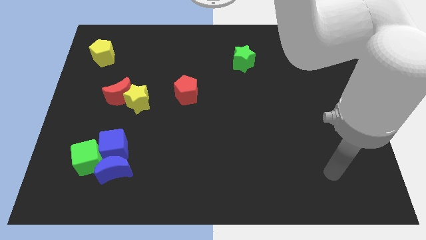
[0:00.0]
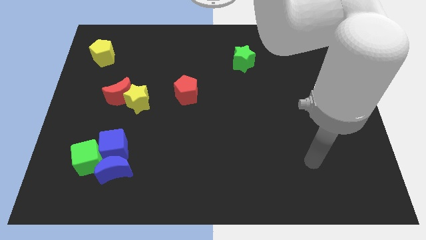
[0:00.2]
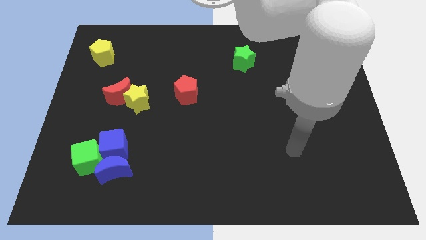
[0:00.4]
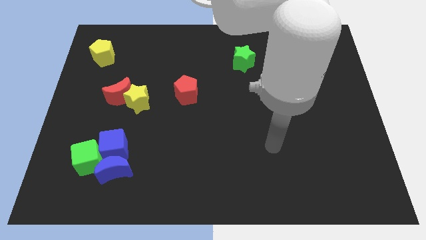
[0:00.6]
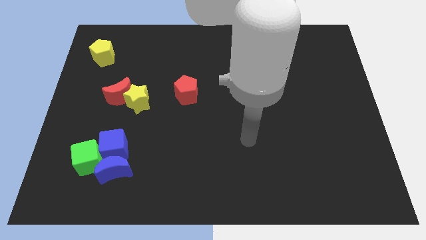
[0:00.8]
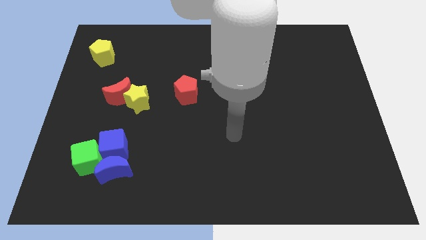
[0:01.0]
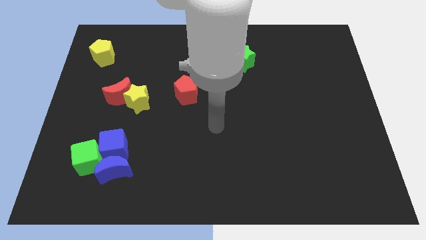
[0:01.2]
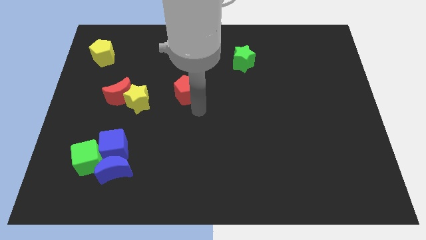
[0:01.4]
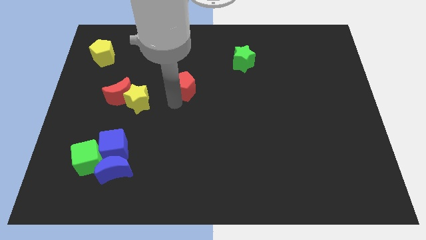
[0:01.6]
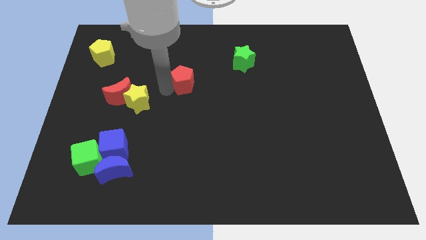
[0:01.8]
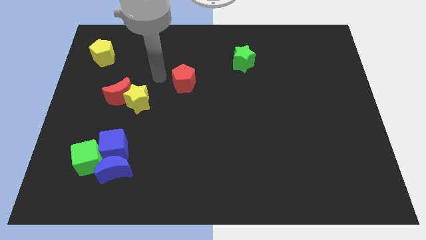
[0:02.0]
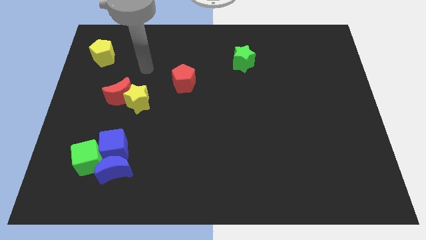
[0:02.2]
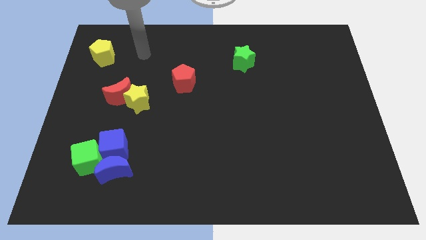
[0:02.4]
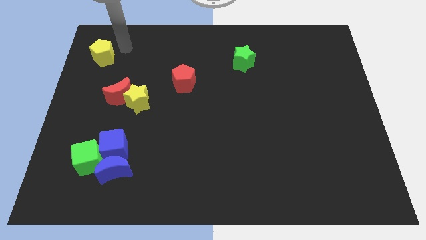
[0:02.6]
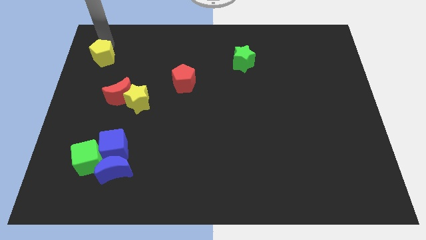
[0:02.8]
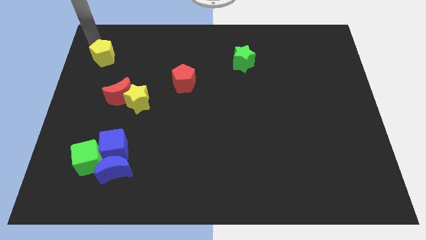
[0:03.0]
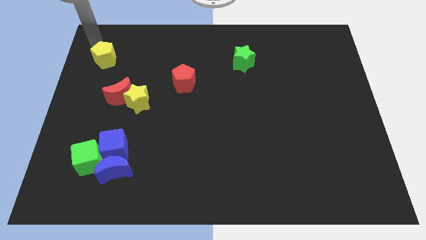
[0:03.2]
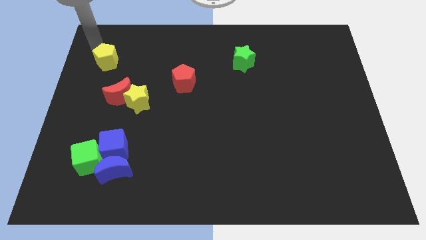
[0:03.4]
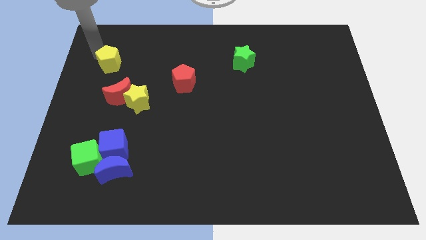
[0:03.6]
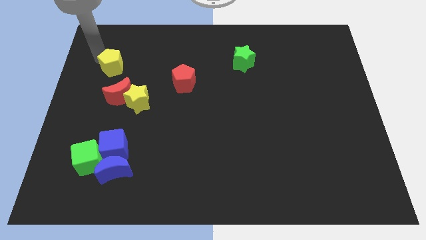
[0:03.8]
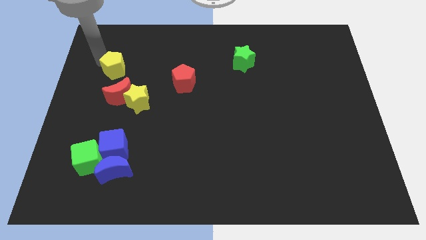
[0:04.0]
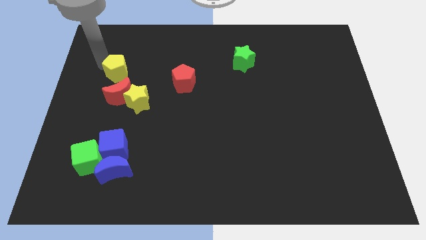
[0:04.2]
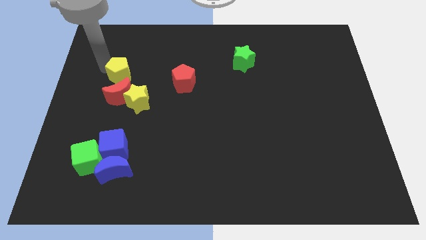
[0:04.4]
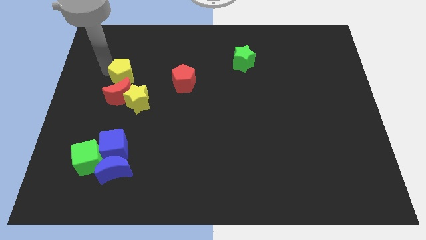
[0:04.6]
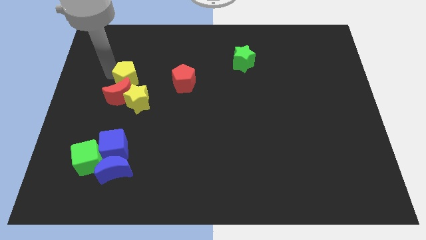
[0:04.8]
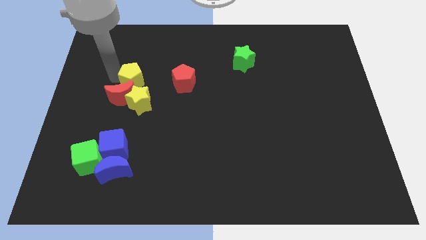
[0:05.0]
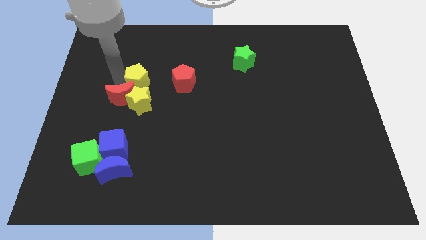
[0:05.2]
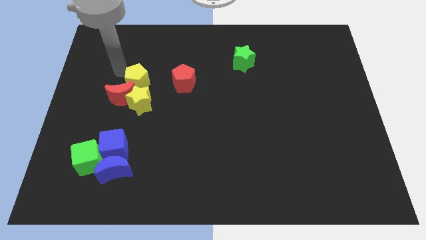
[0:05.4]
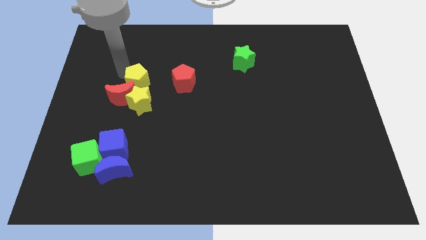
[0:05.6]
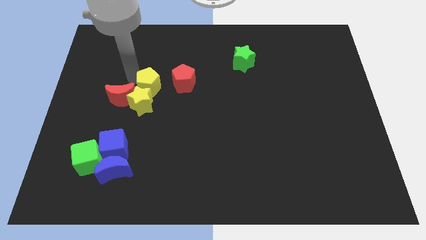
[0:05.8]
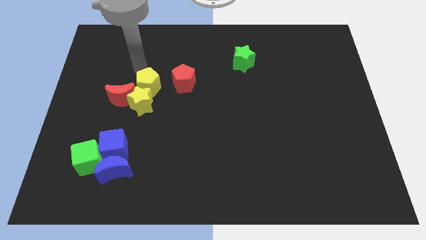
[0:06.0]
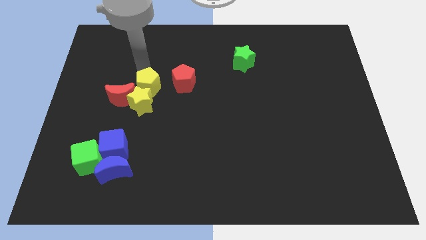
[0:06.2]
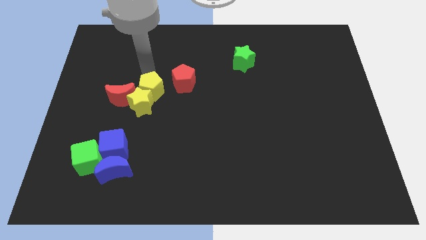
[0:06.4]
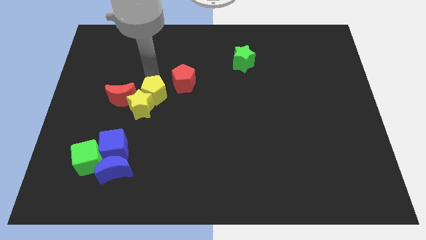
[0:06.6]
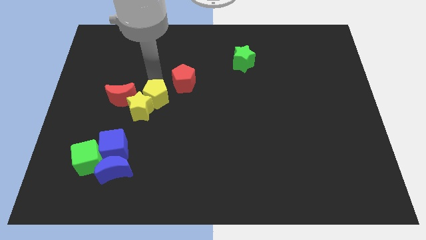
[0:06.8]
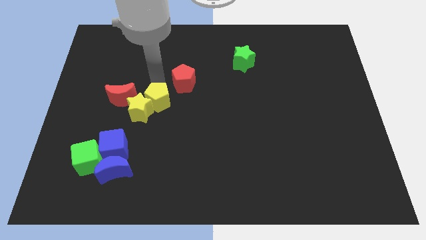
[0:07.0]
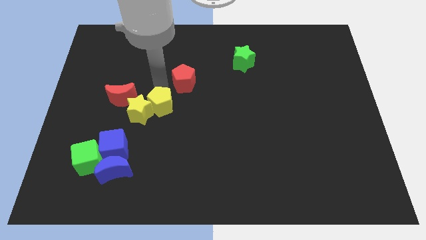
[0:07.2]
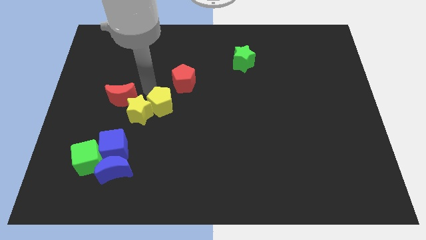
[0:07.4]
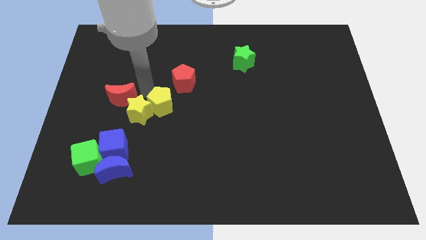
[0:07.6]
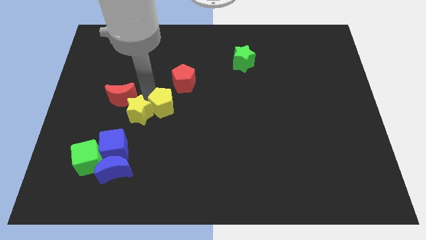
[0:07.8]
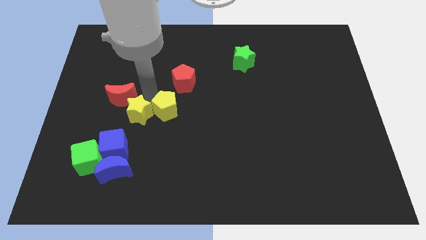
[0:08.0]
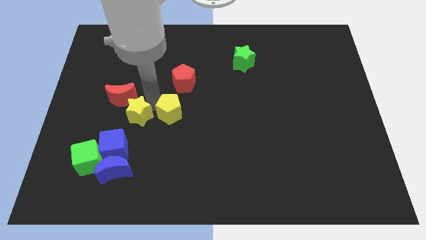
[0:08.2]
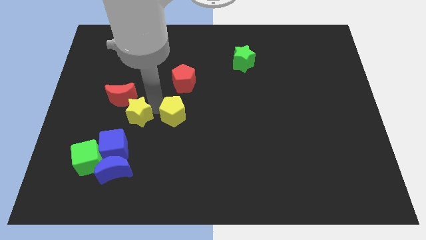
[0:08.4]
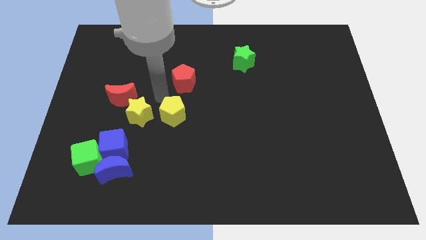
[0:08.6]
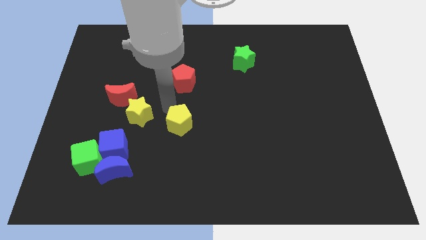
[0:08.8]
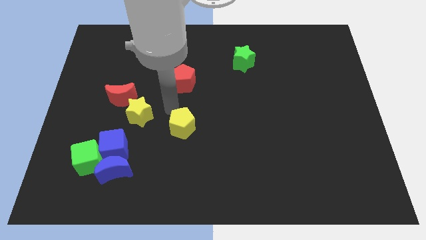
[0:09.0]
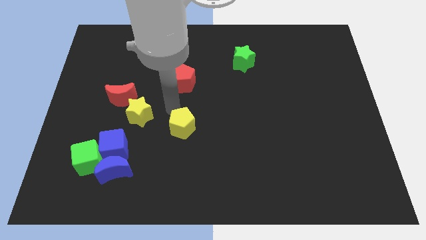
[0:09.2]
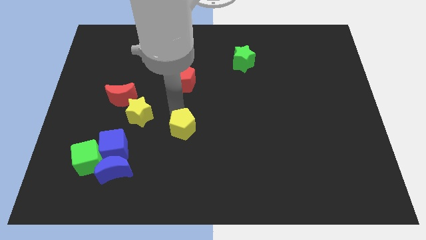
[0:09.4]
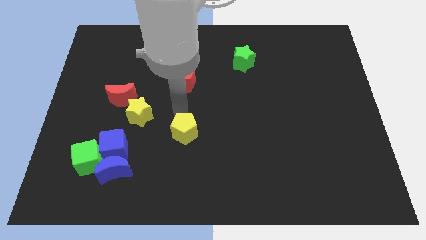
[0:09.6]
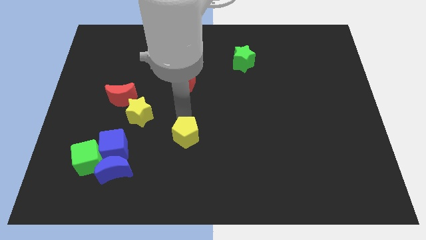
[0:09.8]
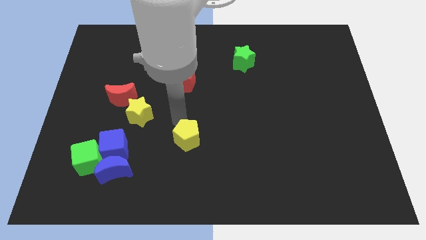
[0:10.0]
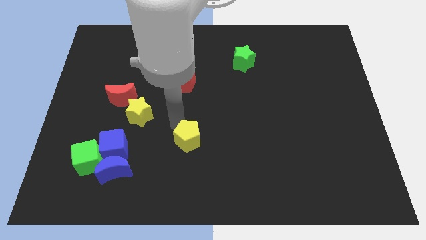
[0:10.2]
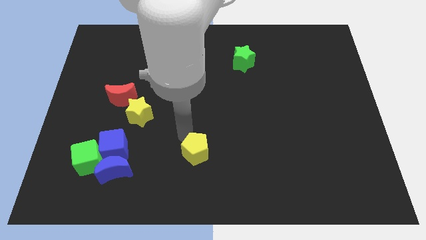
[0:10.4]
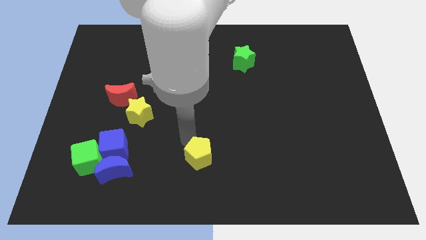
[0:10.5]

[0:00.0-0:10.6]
slide the yellow pentagon to the bottom
